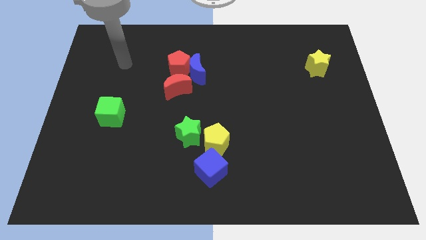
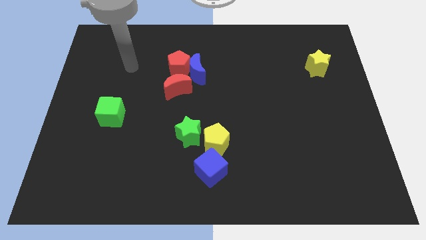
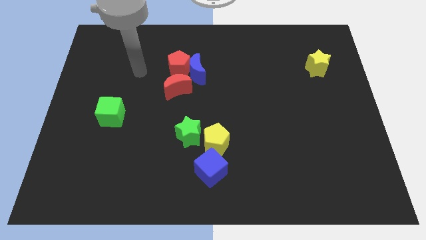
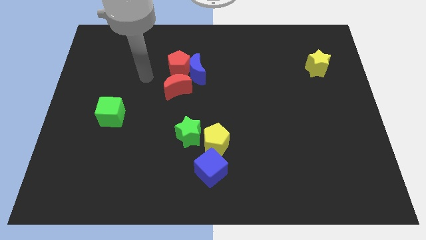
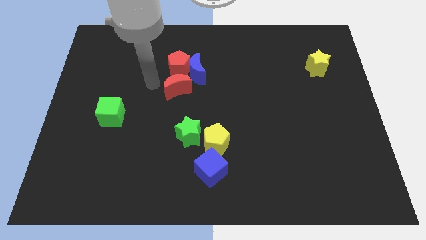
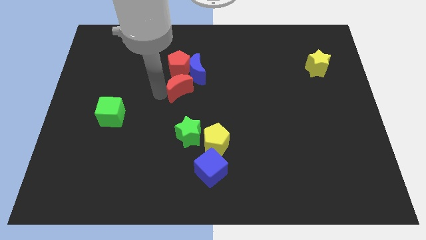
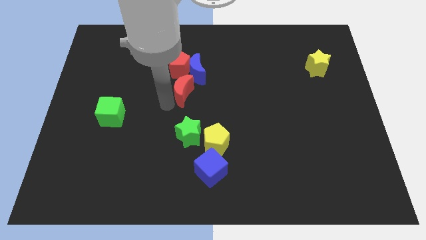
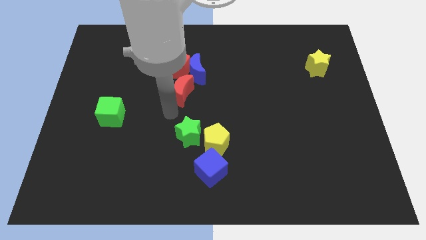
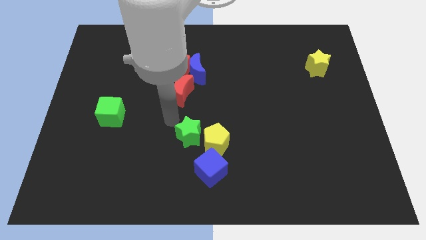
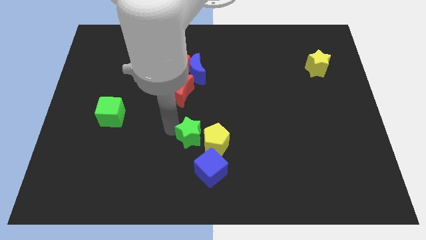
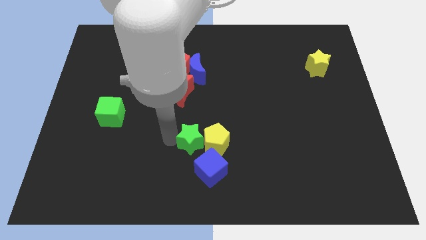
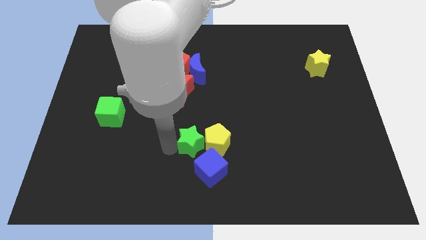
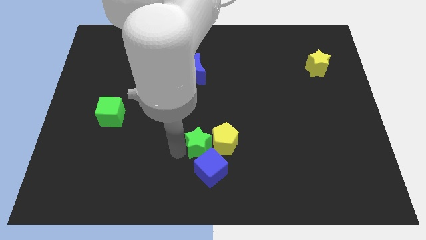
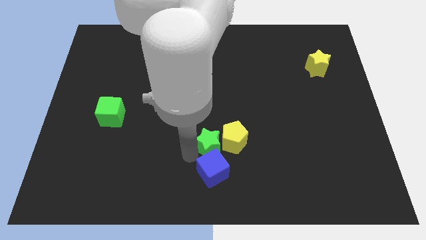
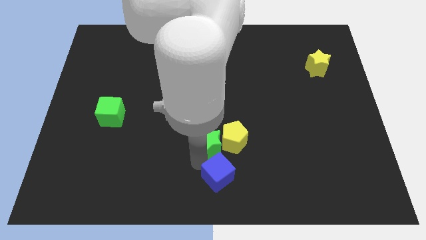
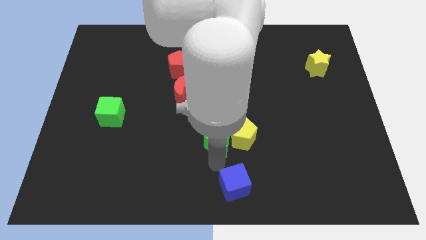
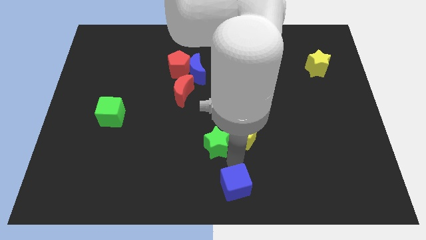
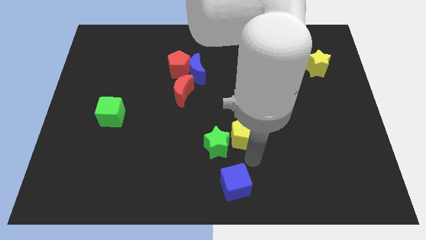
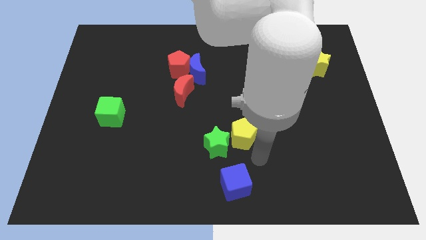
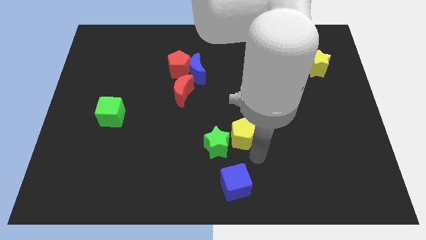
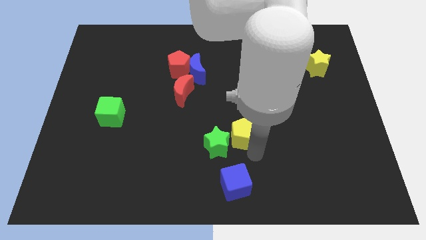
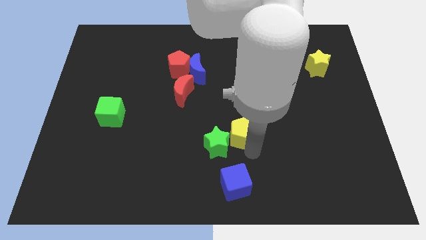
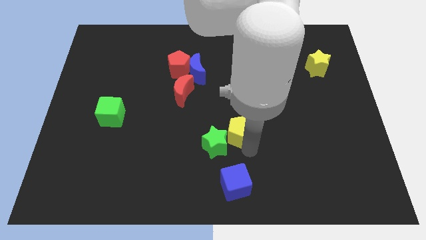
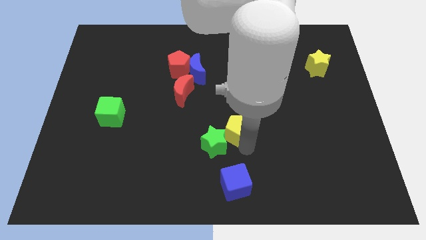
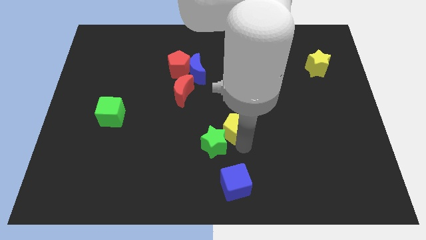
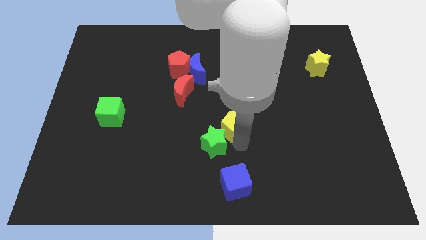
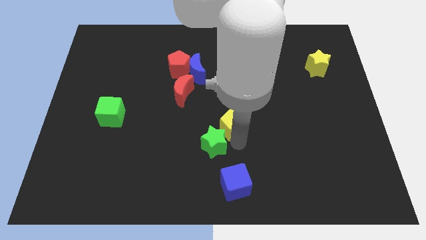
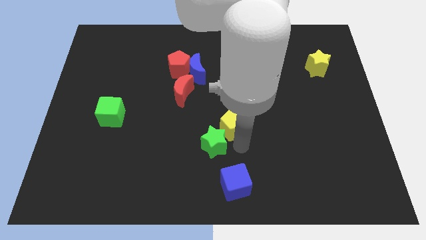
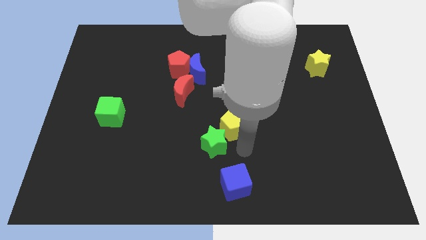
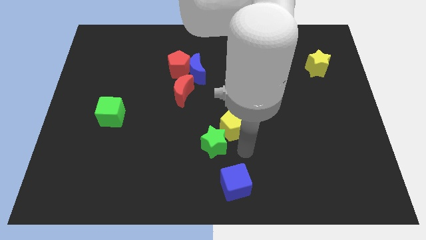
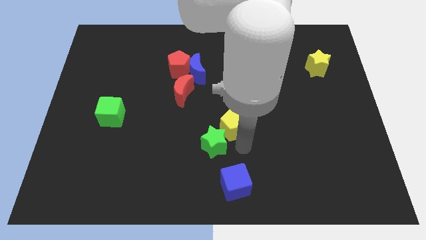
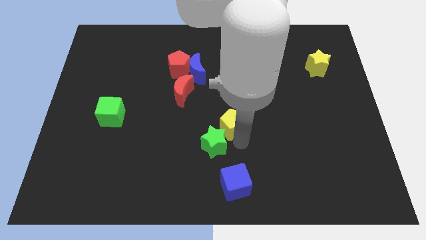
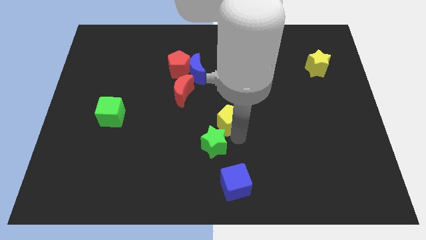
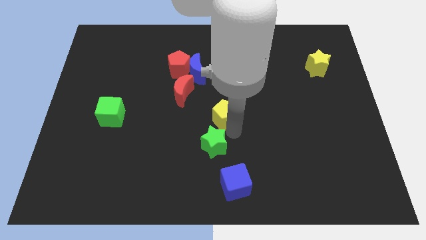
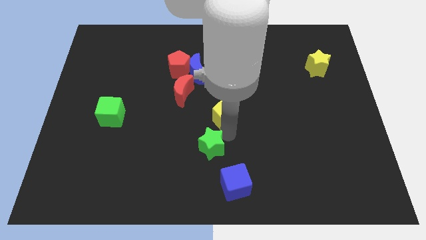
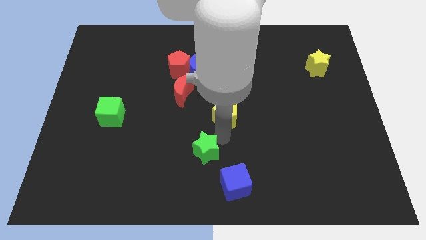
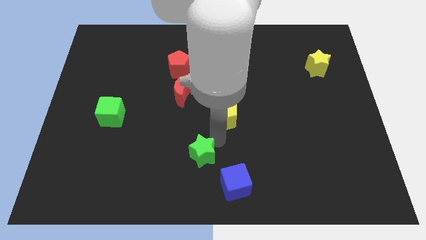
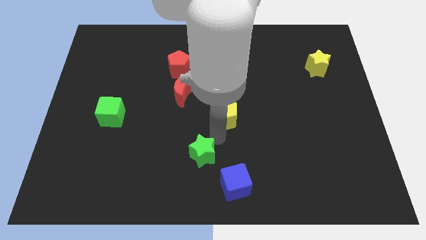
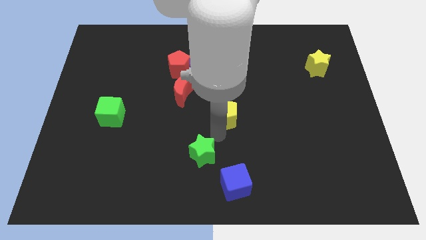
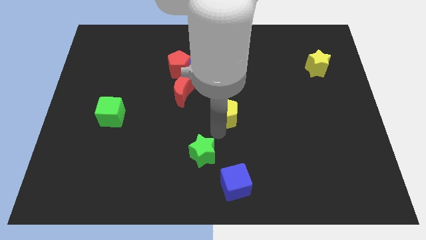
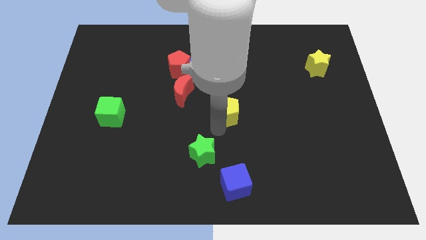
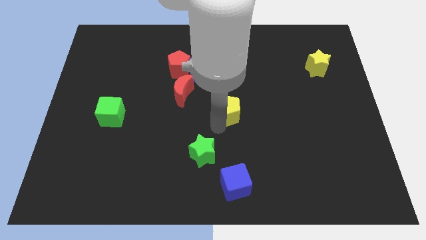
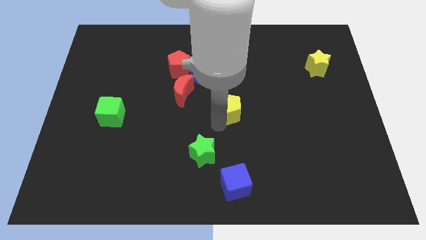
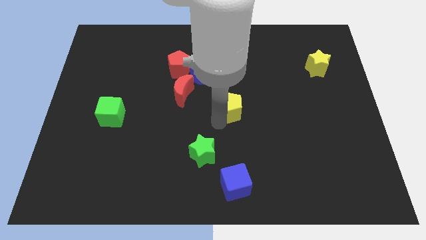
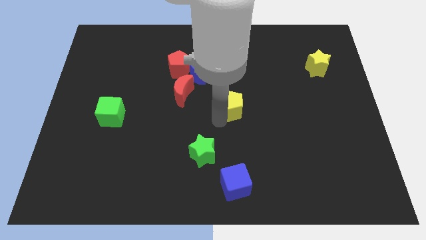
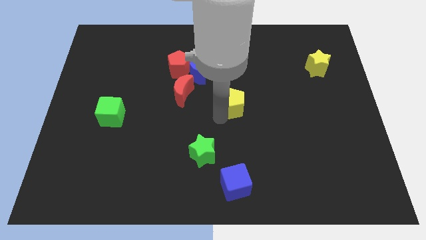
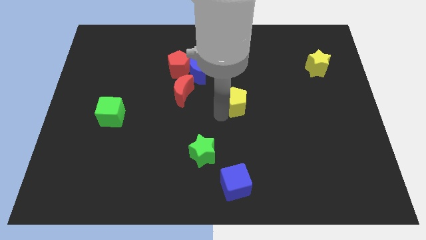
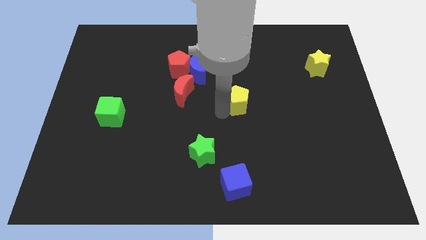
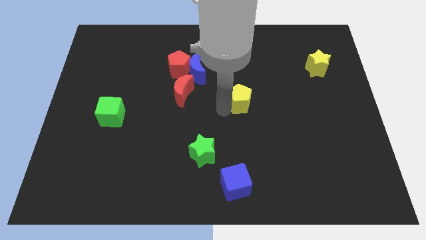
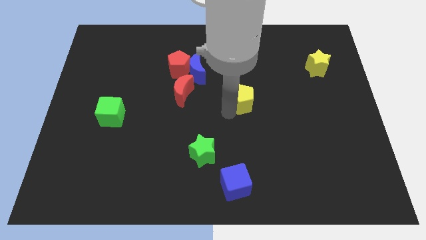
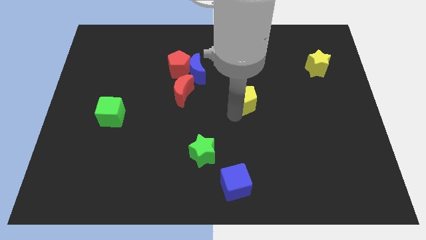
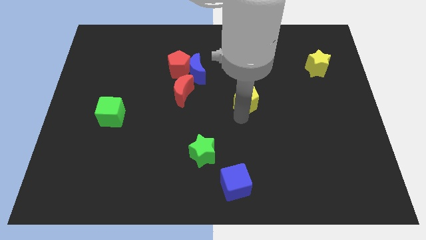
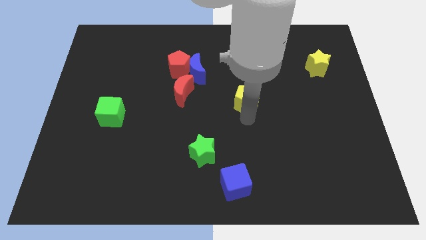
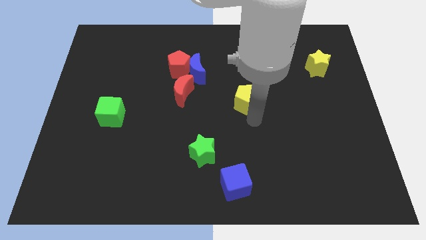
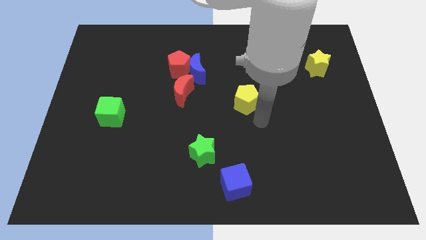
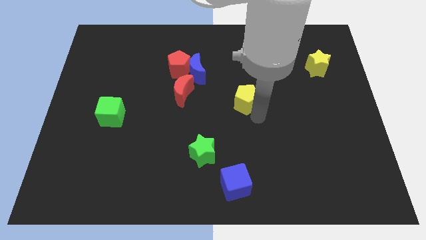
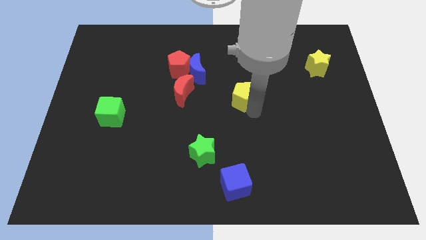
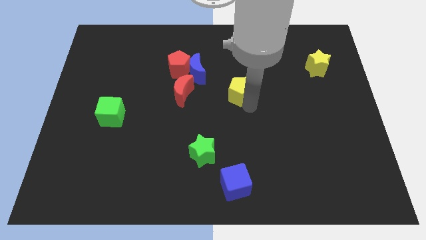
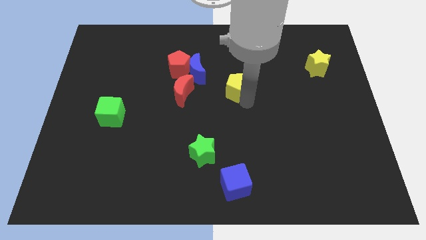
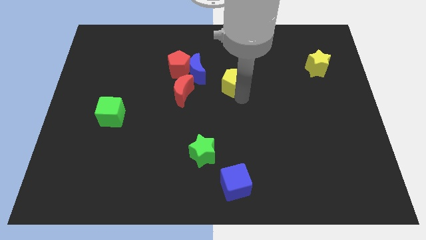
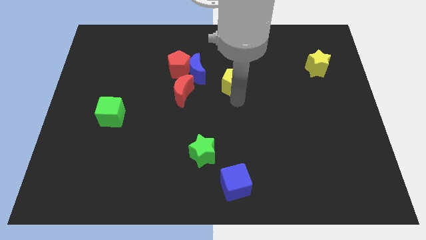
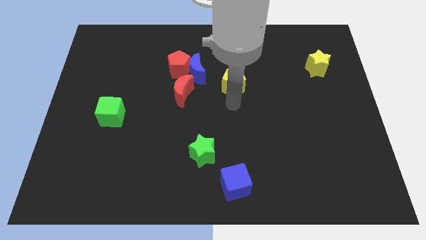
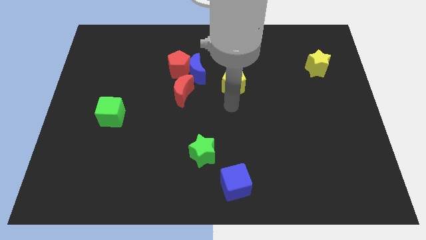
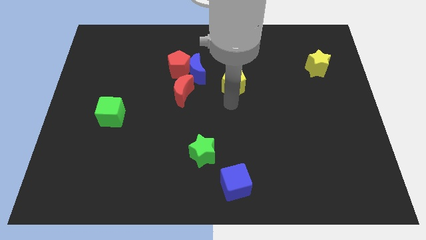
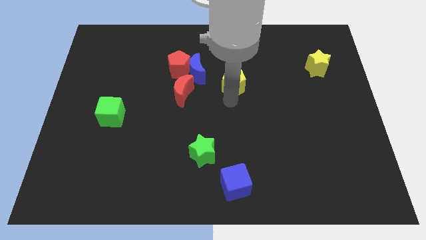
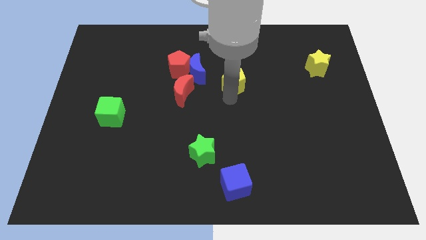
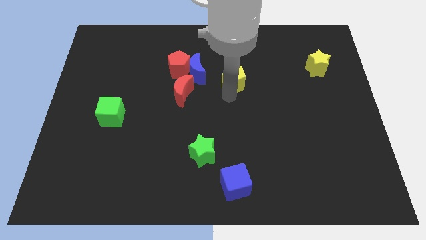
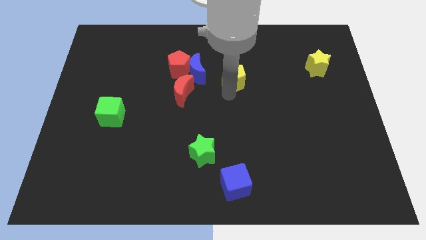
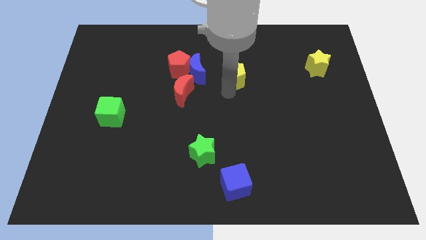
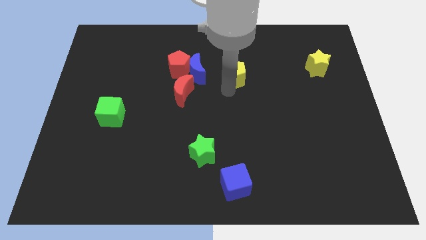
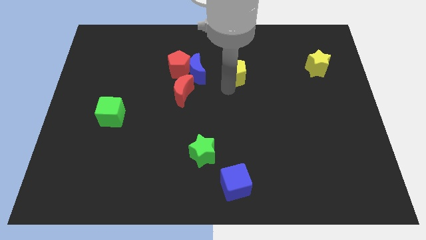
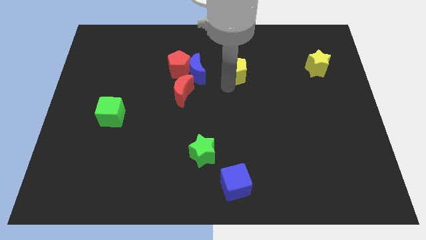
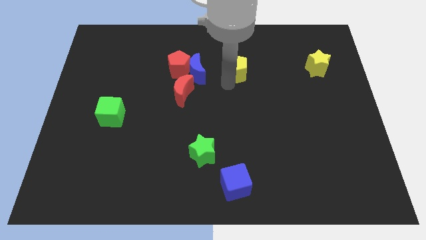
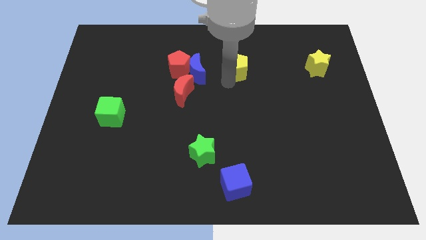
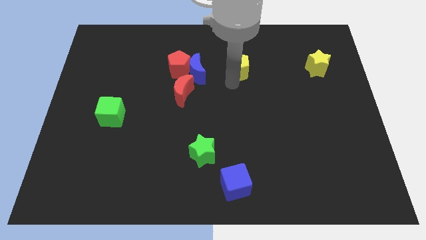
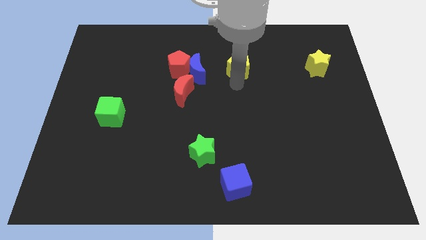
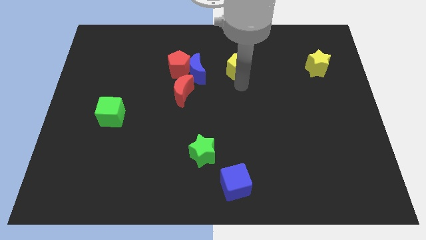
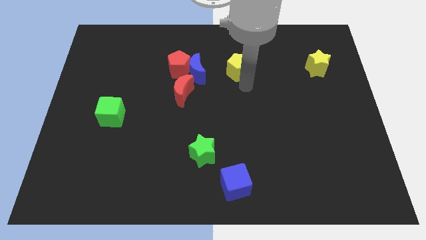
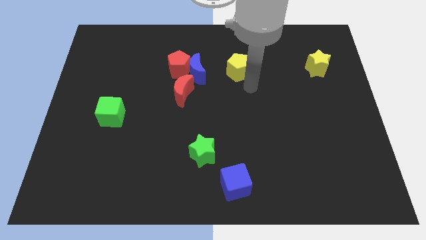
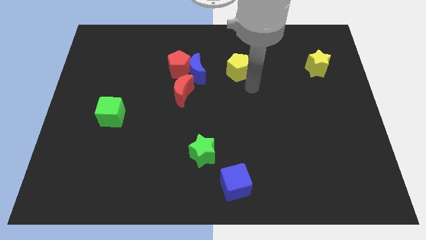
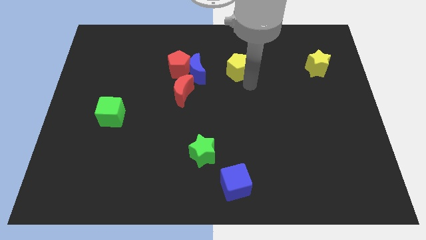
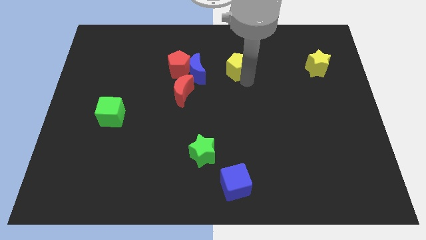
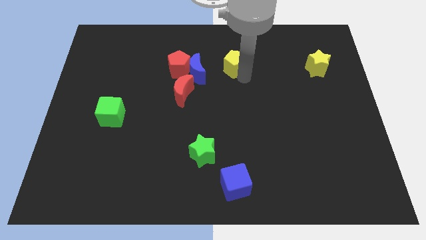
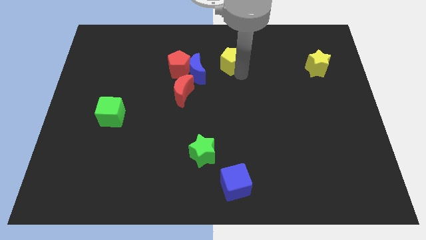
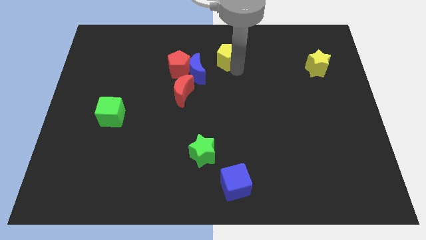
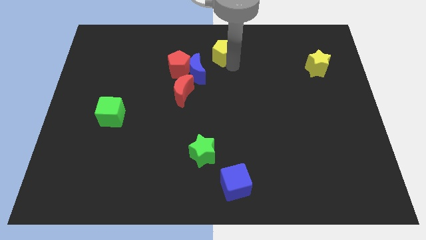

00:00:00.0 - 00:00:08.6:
slide the yellow pentagon to the towards your base
